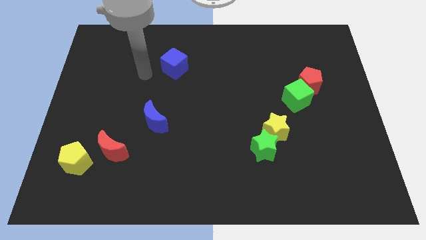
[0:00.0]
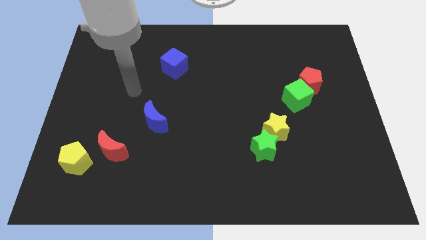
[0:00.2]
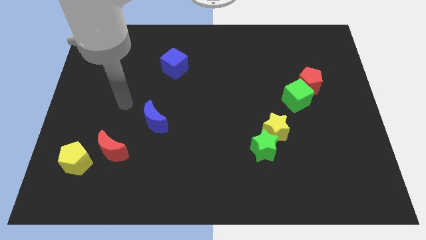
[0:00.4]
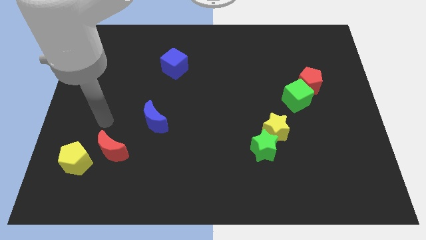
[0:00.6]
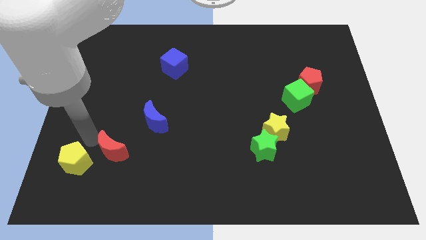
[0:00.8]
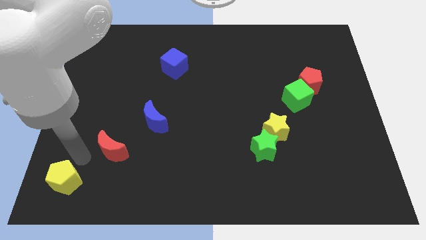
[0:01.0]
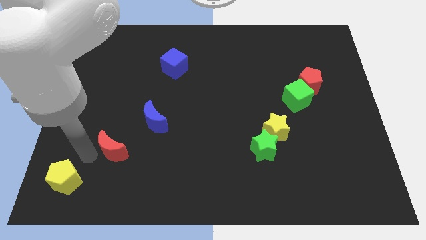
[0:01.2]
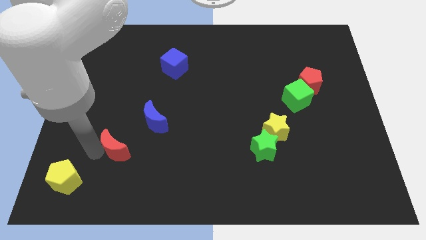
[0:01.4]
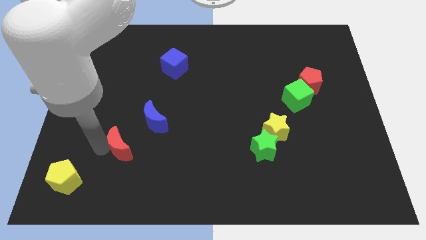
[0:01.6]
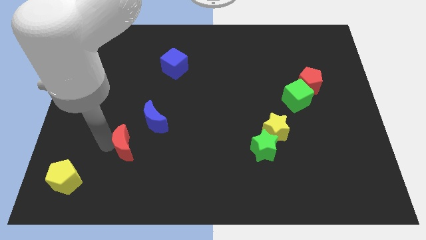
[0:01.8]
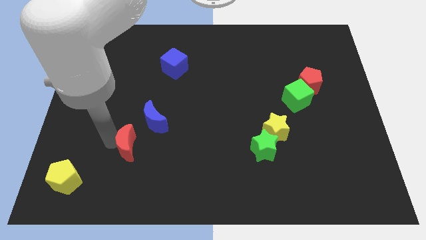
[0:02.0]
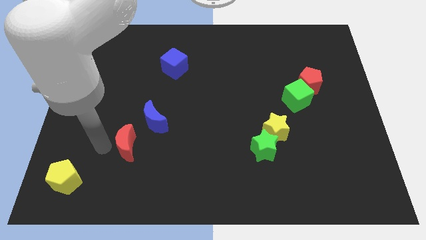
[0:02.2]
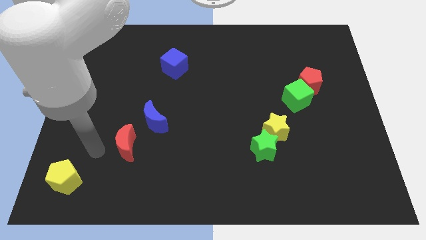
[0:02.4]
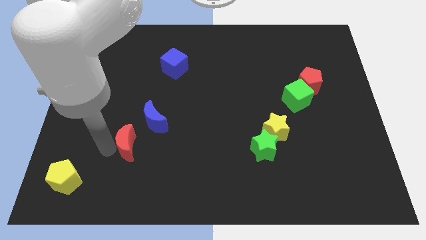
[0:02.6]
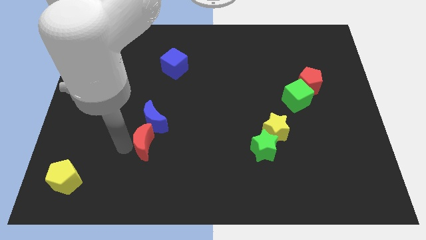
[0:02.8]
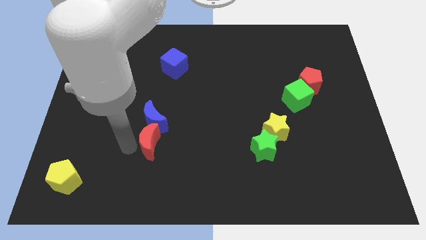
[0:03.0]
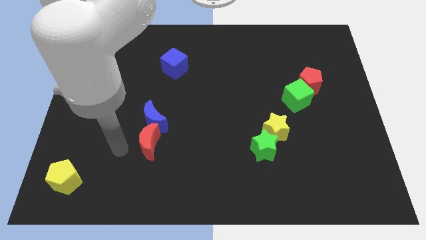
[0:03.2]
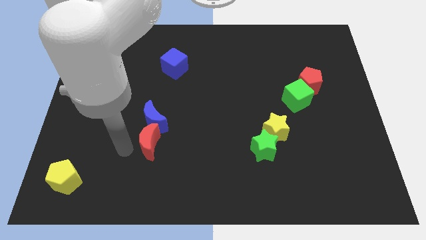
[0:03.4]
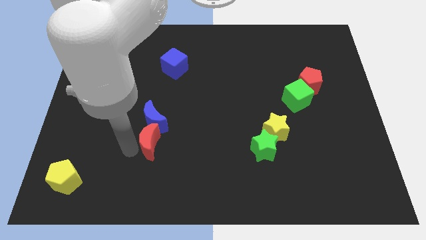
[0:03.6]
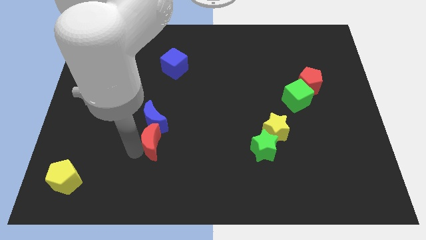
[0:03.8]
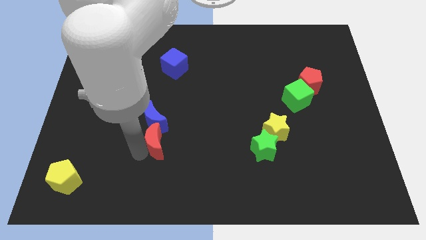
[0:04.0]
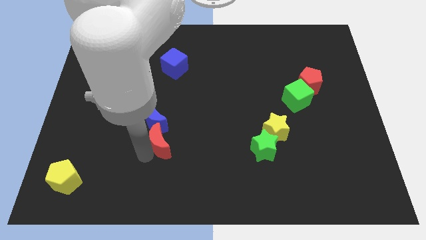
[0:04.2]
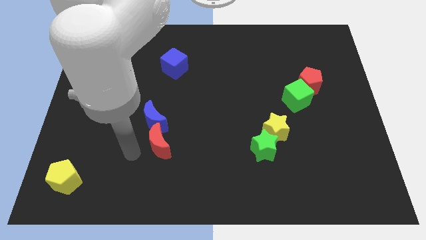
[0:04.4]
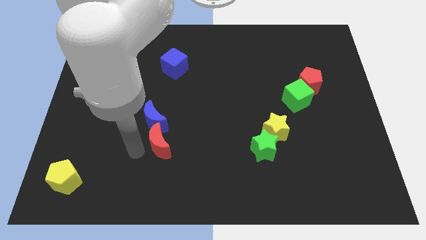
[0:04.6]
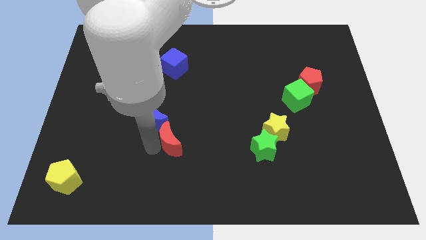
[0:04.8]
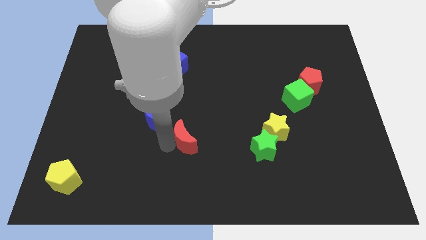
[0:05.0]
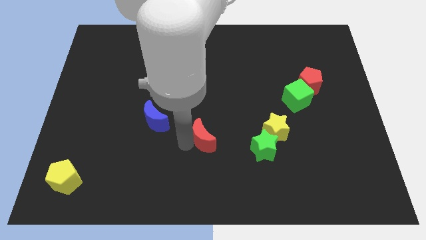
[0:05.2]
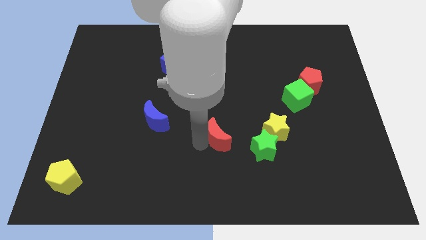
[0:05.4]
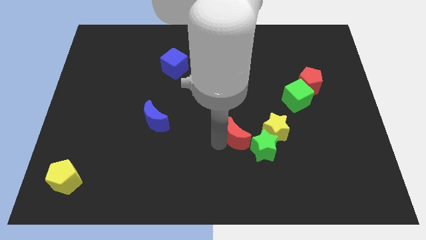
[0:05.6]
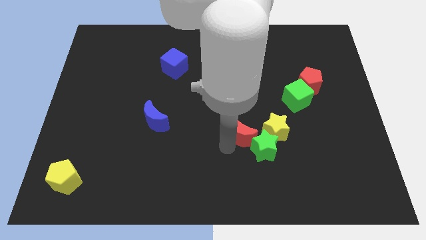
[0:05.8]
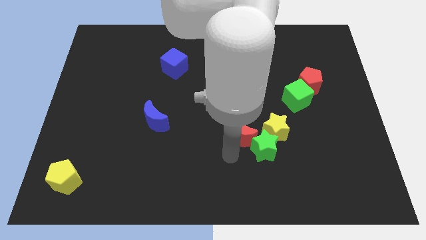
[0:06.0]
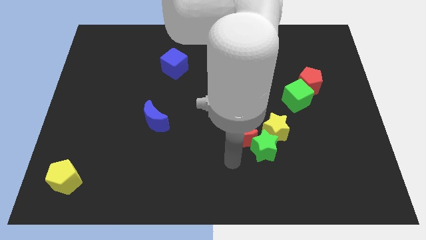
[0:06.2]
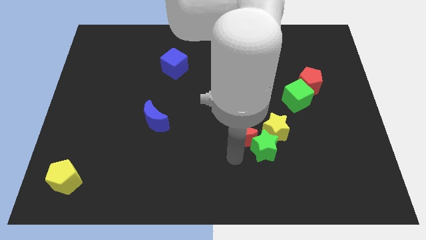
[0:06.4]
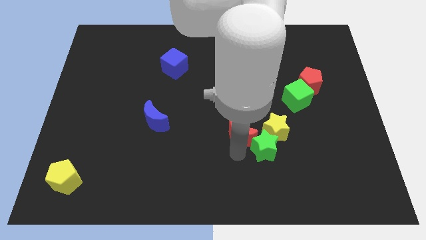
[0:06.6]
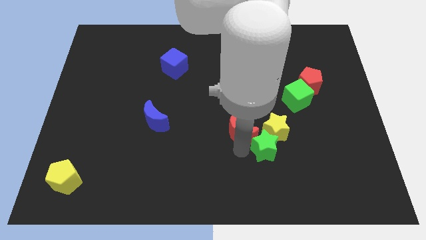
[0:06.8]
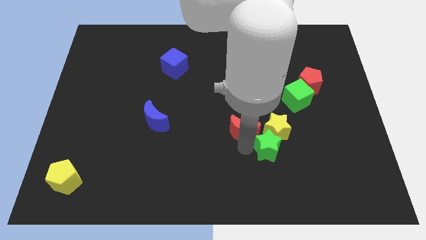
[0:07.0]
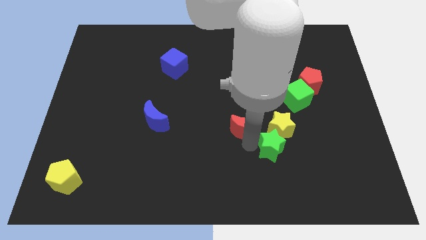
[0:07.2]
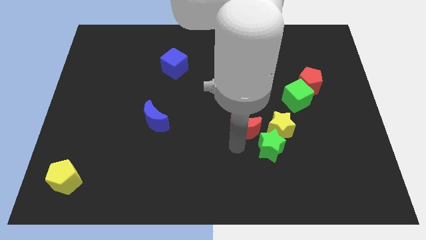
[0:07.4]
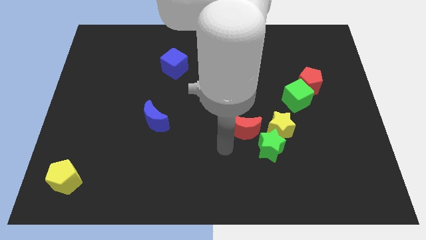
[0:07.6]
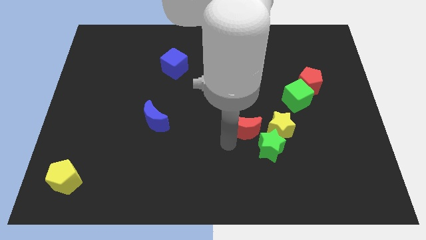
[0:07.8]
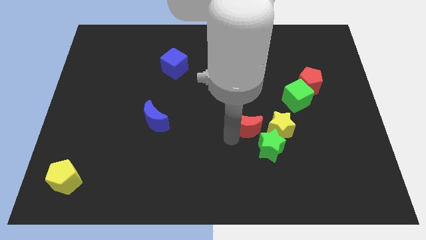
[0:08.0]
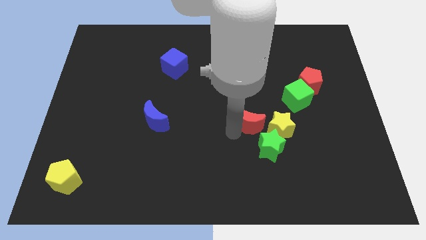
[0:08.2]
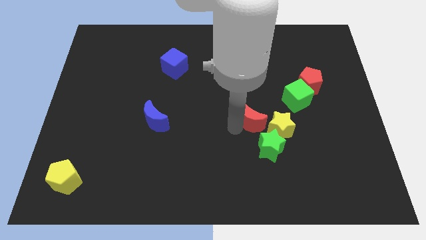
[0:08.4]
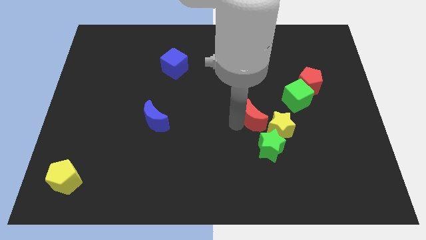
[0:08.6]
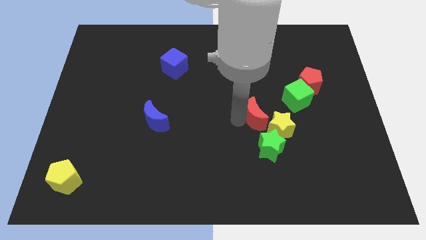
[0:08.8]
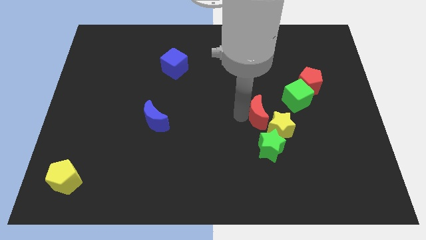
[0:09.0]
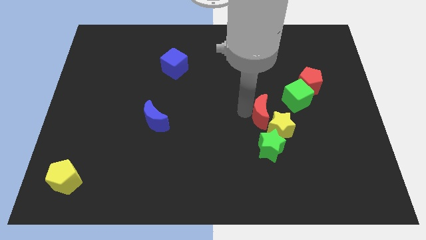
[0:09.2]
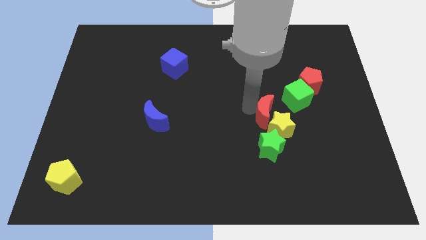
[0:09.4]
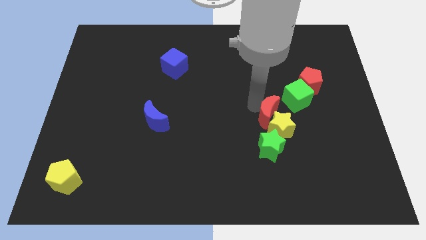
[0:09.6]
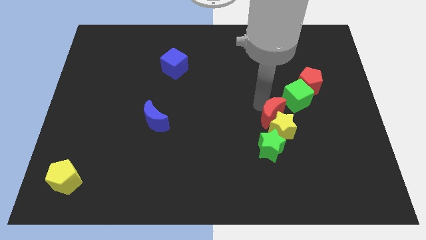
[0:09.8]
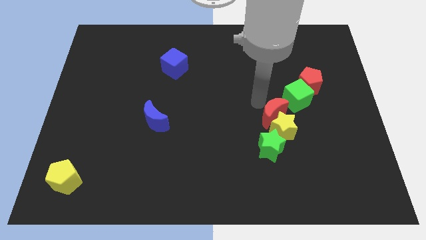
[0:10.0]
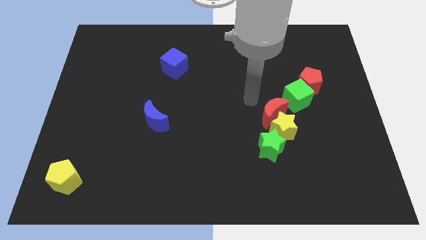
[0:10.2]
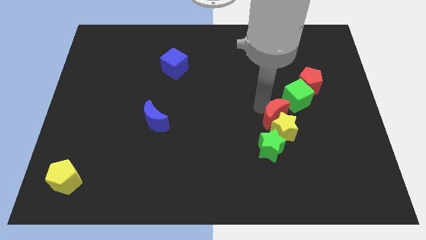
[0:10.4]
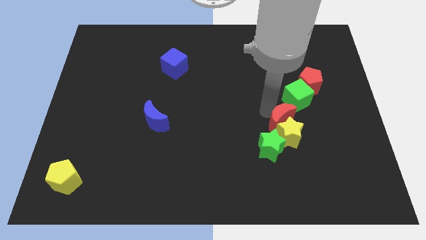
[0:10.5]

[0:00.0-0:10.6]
move the red moon to the top right side of the green star

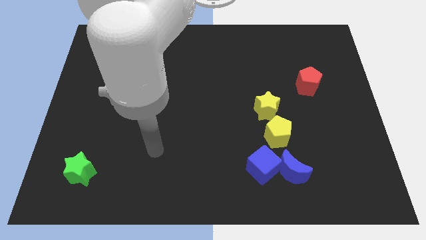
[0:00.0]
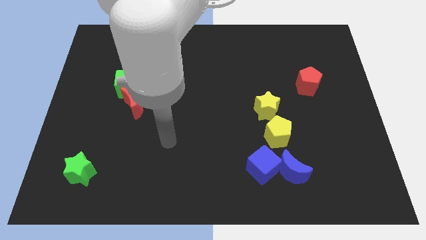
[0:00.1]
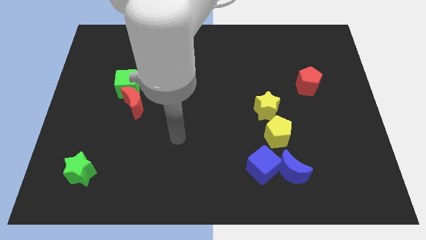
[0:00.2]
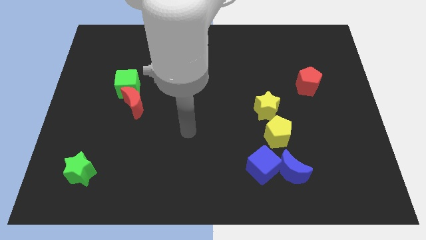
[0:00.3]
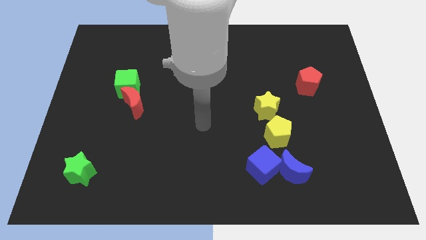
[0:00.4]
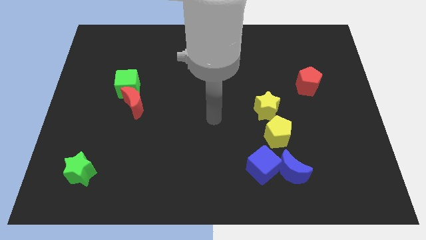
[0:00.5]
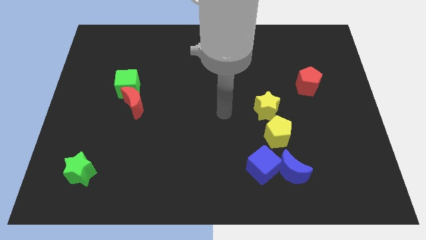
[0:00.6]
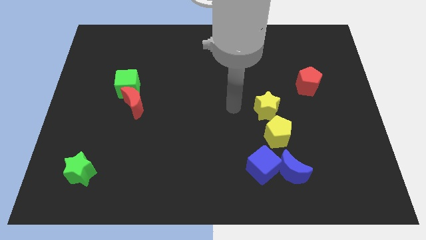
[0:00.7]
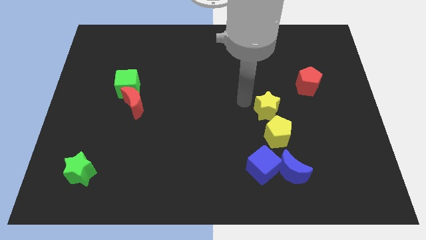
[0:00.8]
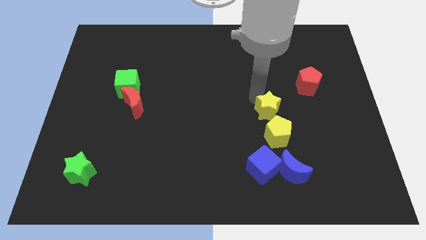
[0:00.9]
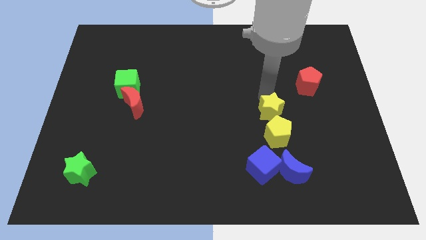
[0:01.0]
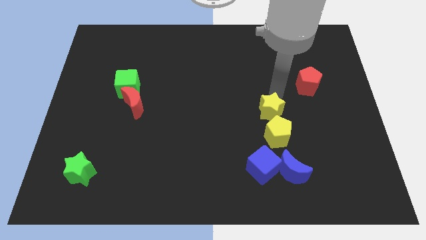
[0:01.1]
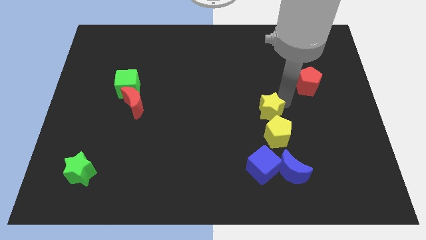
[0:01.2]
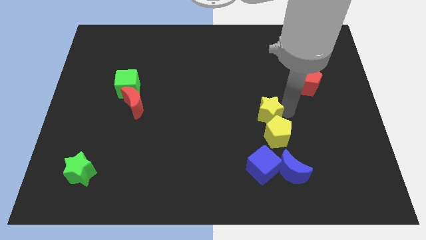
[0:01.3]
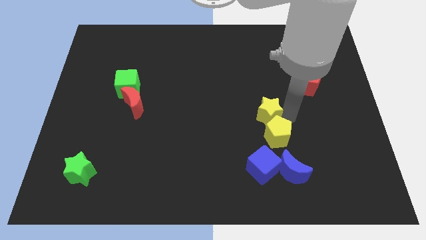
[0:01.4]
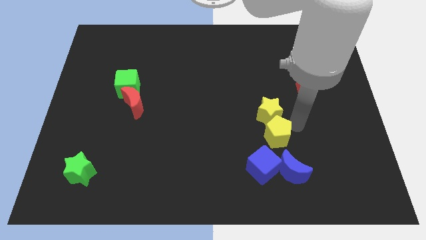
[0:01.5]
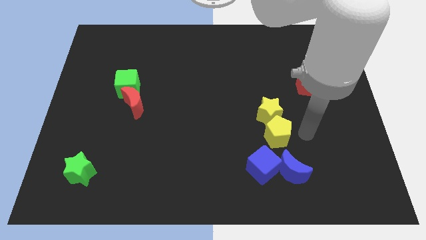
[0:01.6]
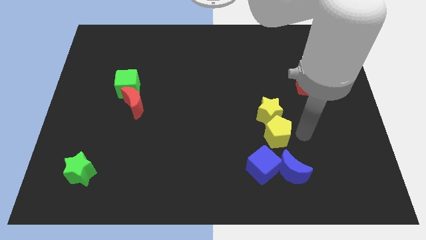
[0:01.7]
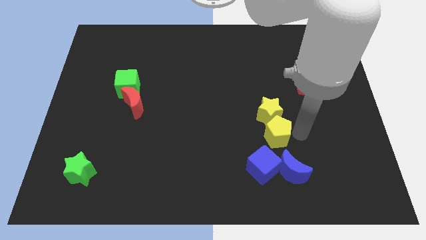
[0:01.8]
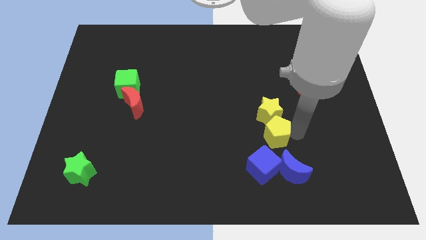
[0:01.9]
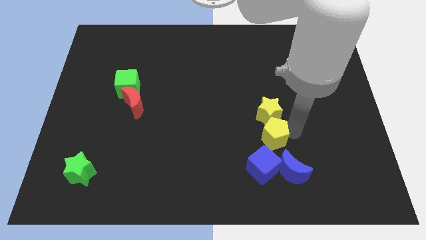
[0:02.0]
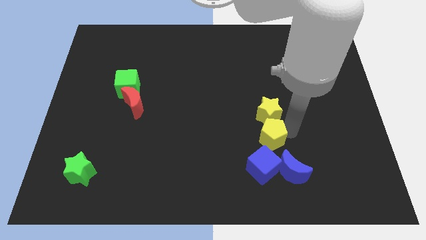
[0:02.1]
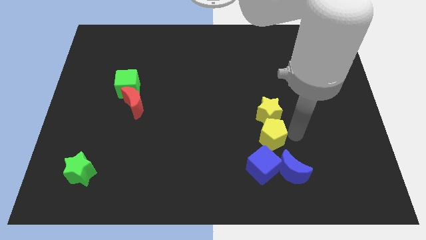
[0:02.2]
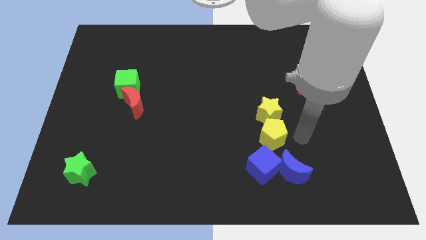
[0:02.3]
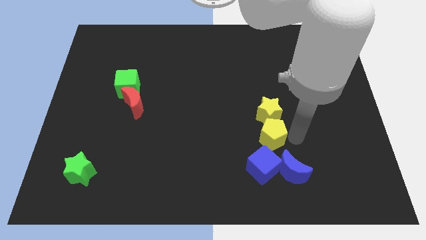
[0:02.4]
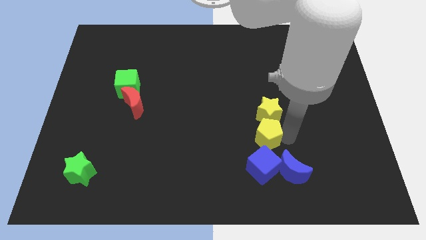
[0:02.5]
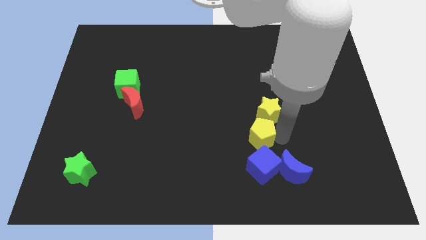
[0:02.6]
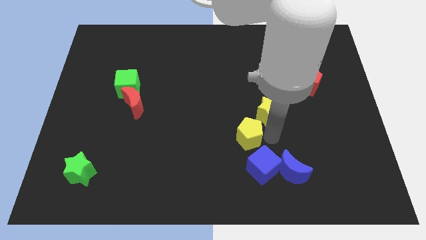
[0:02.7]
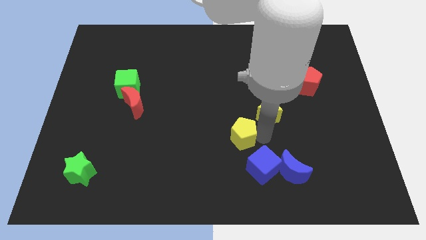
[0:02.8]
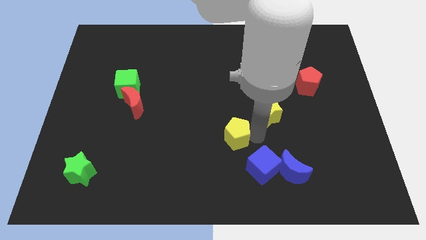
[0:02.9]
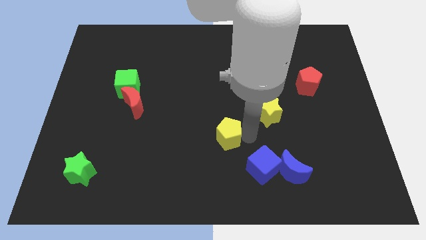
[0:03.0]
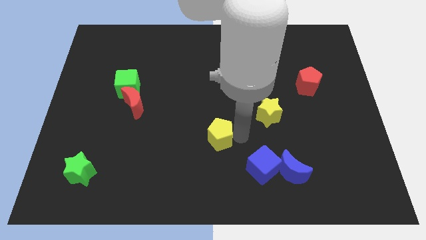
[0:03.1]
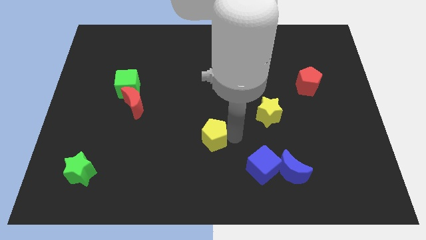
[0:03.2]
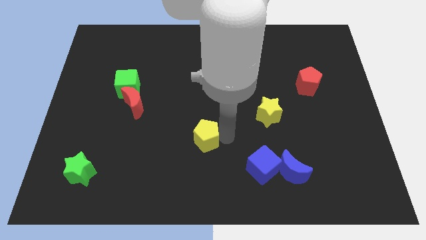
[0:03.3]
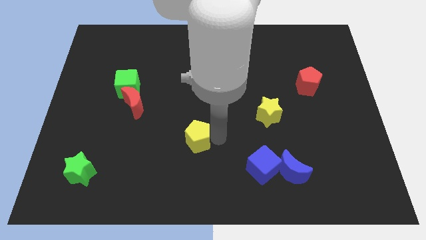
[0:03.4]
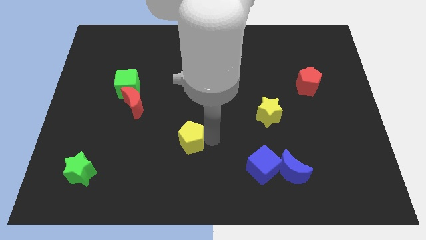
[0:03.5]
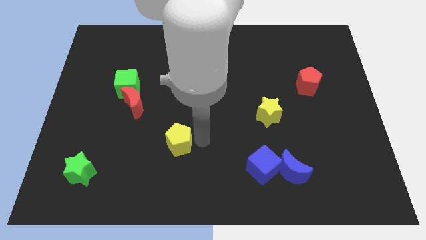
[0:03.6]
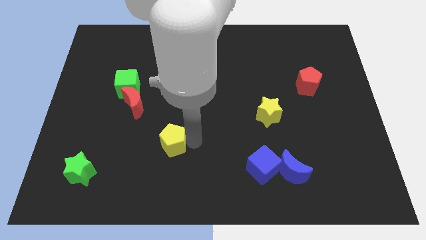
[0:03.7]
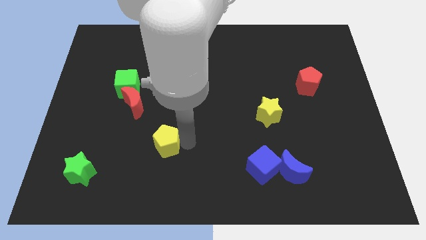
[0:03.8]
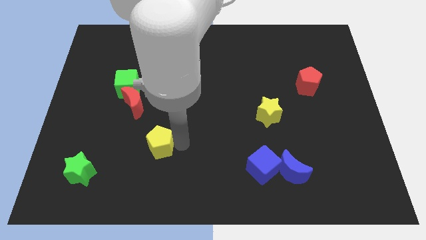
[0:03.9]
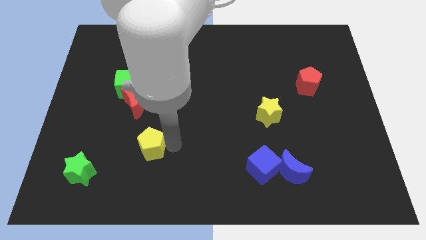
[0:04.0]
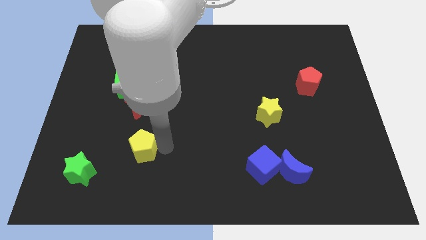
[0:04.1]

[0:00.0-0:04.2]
move the yellow pentagon below the red moon
